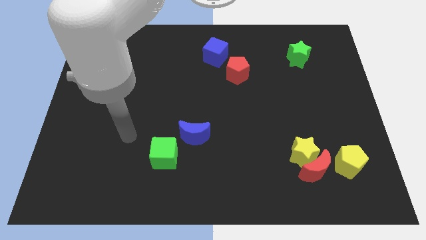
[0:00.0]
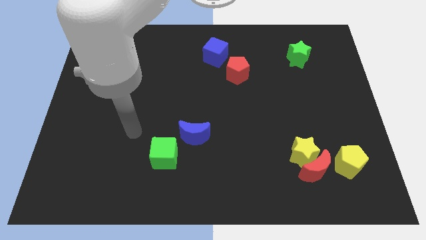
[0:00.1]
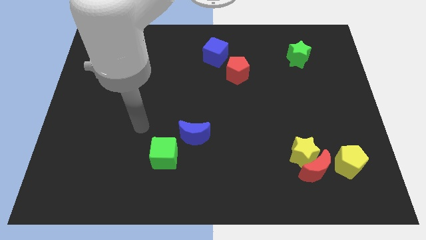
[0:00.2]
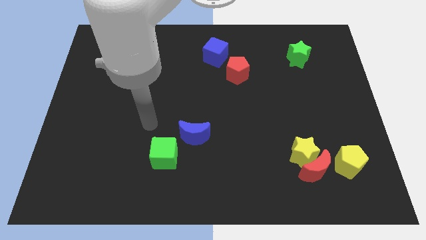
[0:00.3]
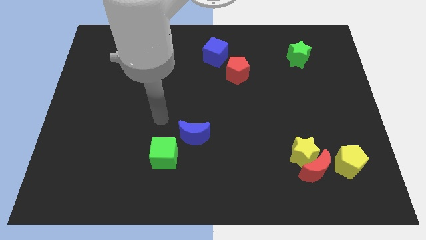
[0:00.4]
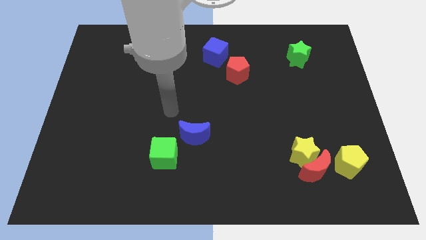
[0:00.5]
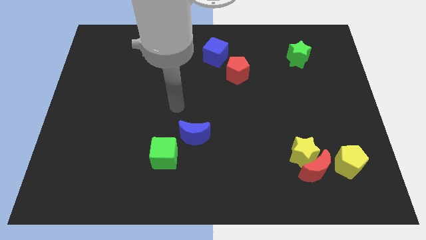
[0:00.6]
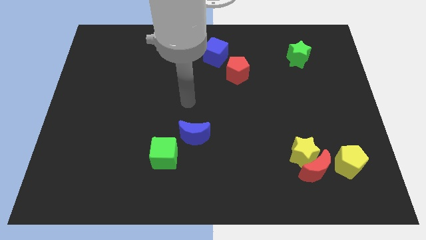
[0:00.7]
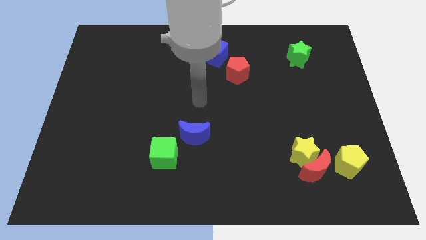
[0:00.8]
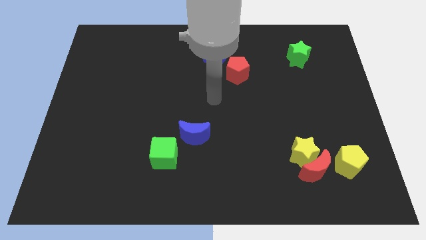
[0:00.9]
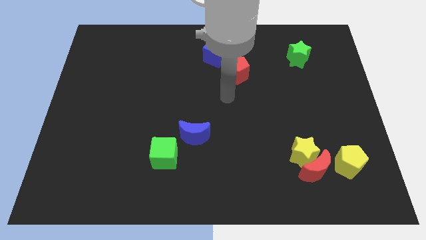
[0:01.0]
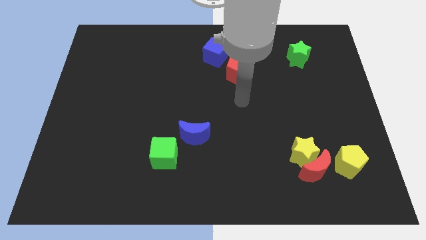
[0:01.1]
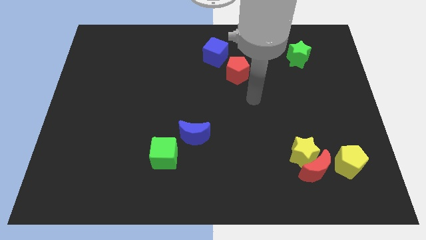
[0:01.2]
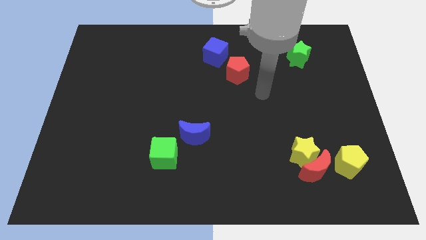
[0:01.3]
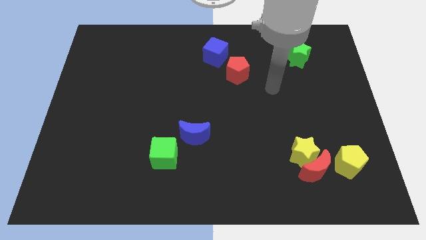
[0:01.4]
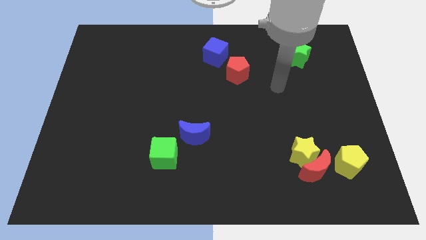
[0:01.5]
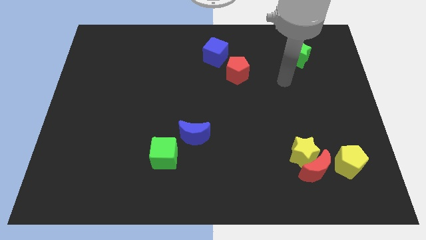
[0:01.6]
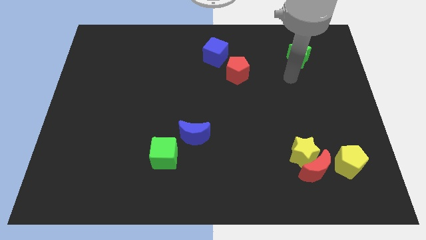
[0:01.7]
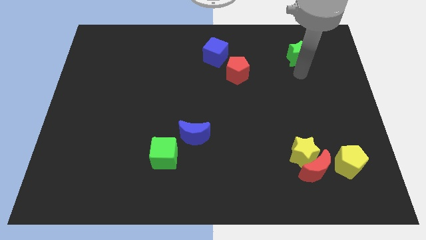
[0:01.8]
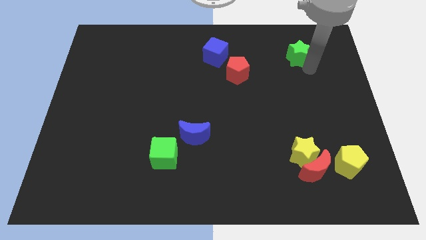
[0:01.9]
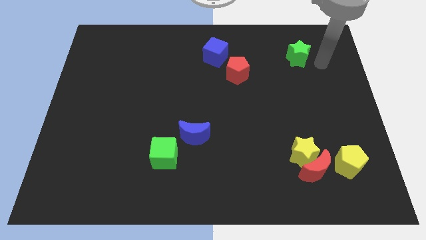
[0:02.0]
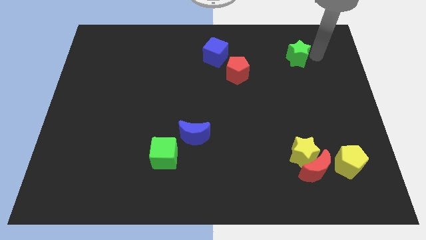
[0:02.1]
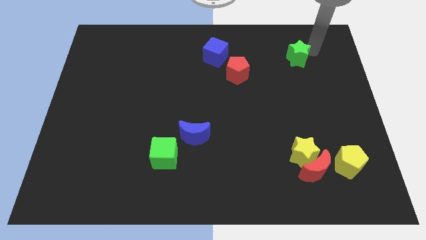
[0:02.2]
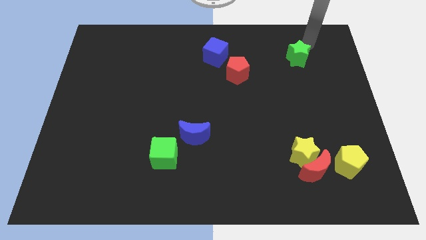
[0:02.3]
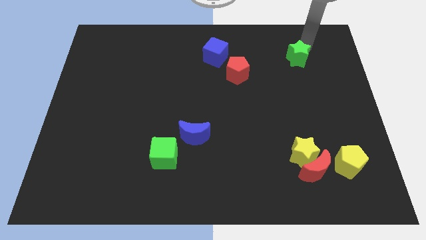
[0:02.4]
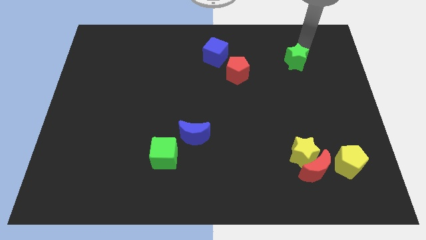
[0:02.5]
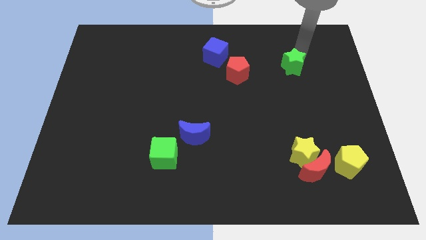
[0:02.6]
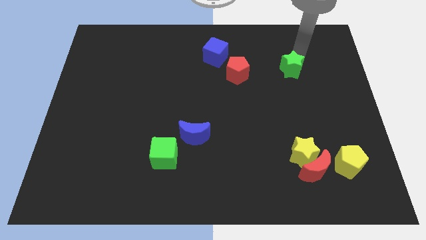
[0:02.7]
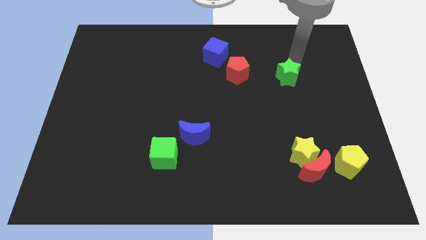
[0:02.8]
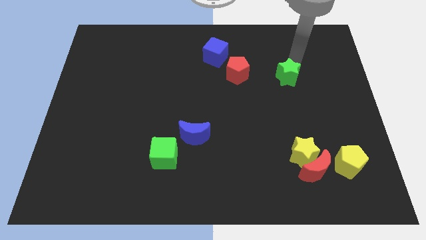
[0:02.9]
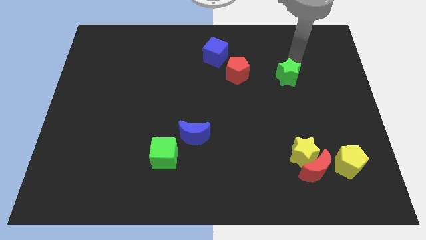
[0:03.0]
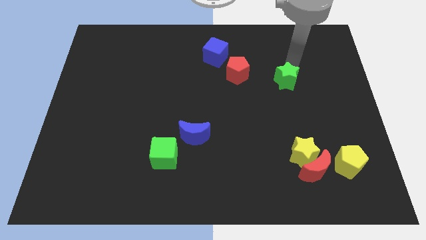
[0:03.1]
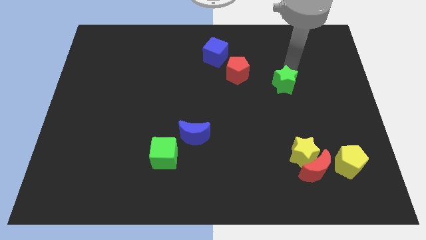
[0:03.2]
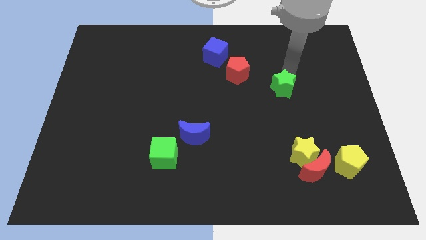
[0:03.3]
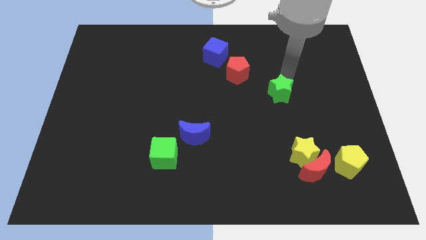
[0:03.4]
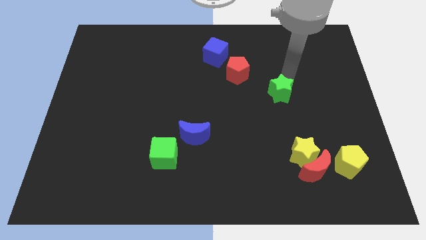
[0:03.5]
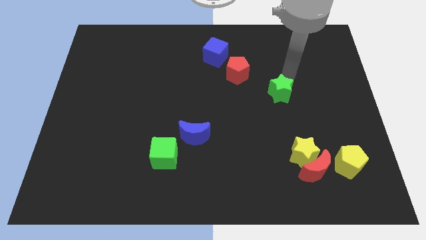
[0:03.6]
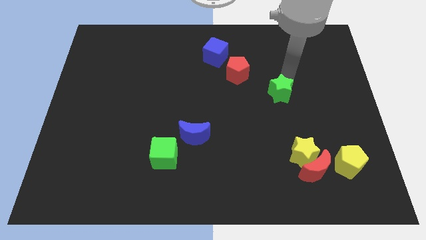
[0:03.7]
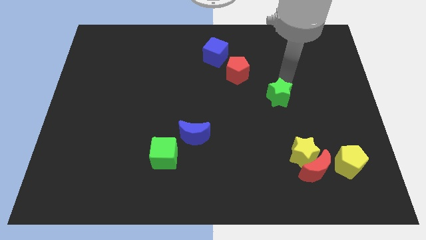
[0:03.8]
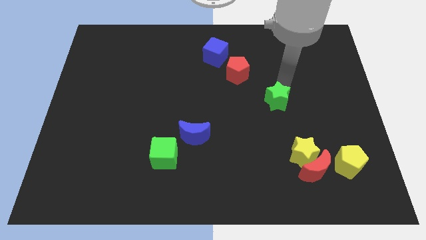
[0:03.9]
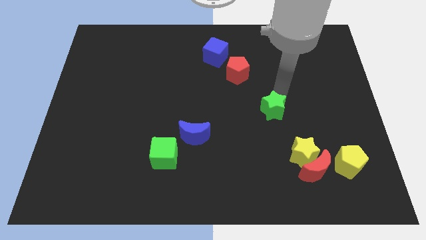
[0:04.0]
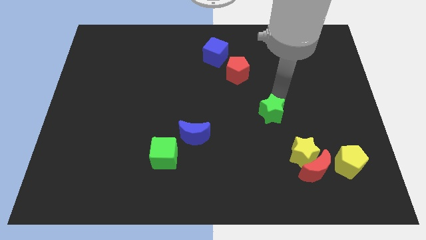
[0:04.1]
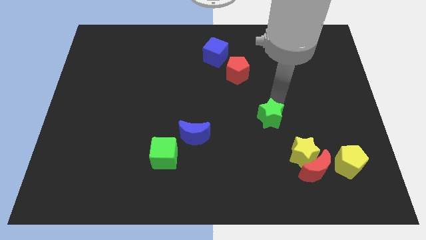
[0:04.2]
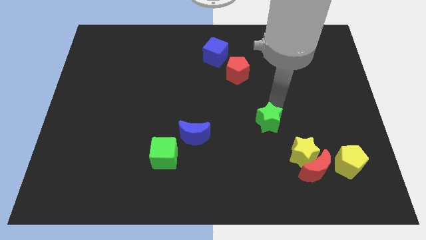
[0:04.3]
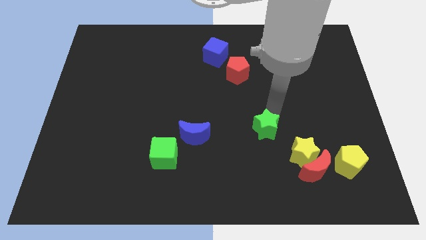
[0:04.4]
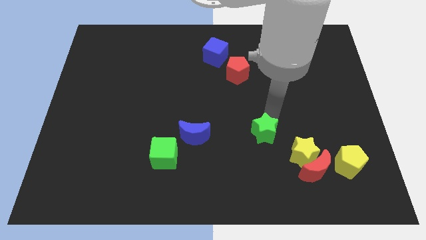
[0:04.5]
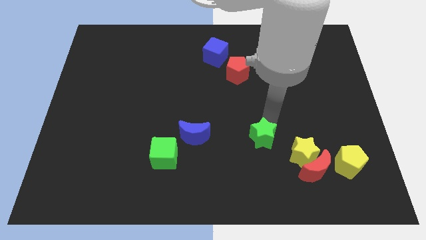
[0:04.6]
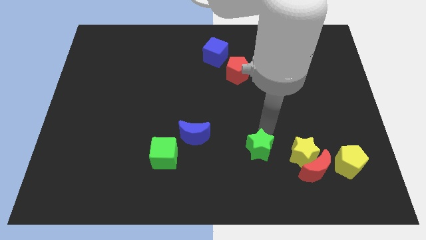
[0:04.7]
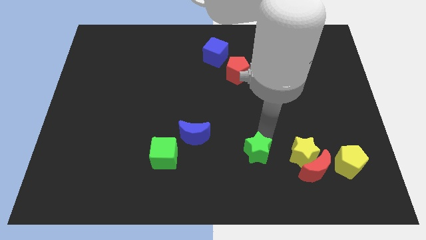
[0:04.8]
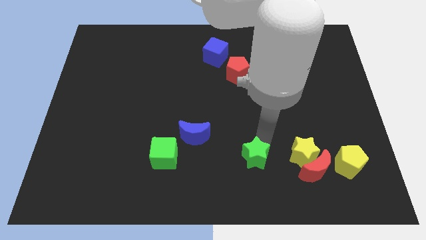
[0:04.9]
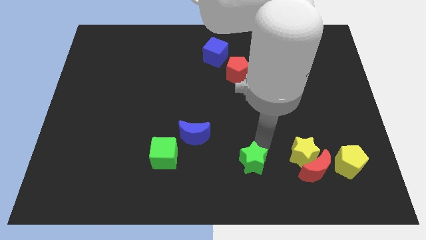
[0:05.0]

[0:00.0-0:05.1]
slide the green star to the bottom side

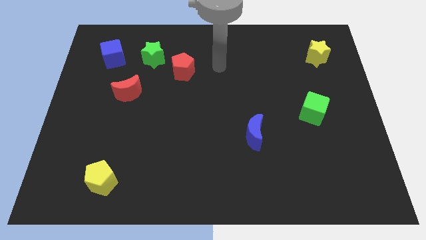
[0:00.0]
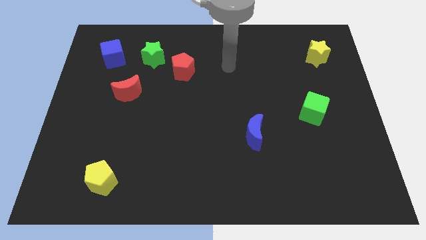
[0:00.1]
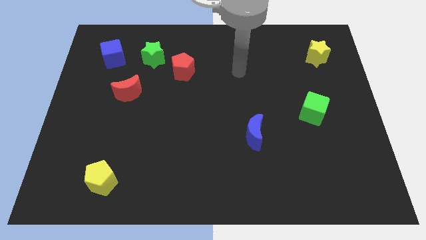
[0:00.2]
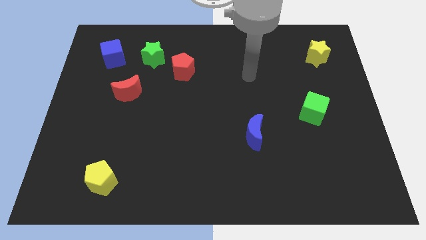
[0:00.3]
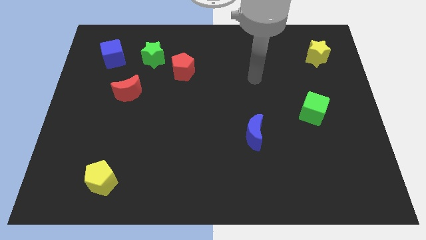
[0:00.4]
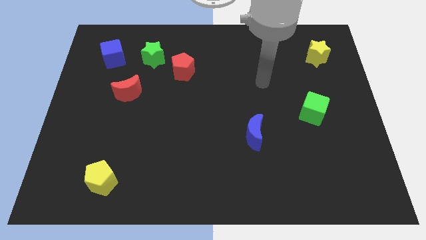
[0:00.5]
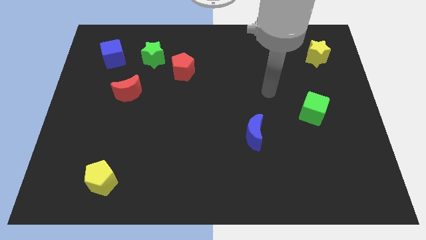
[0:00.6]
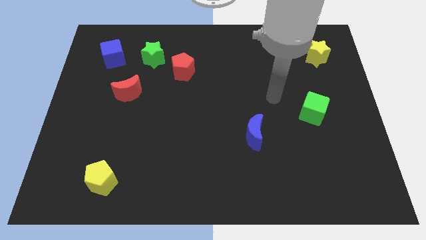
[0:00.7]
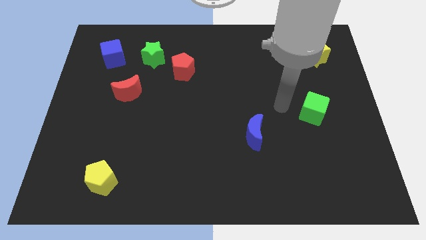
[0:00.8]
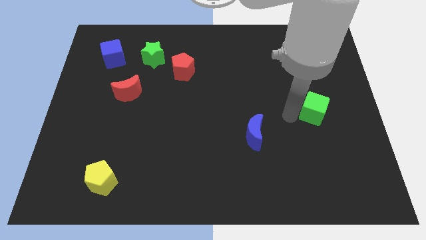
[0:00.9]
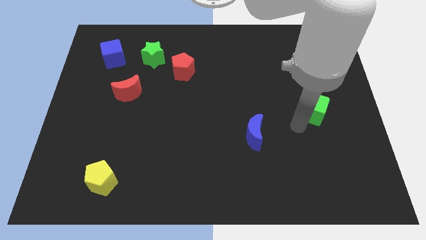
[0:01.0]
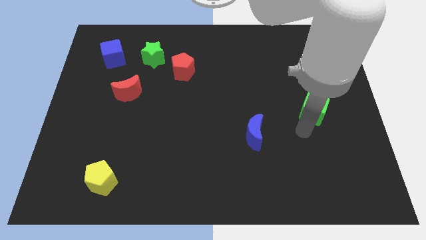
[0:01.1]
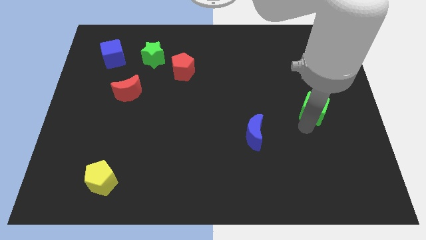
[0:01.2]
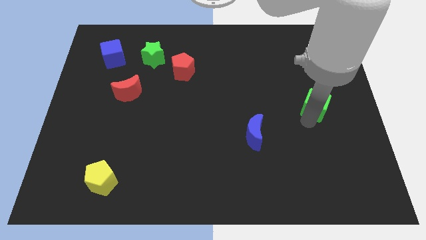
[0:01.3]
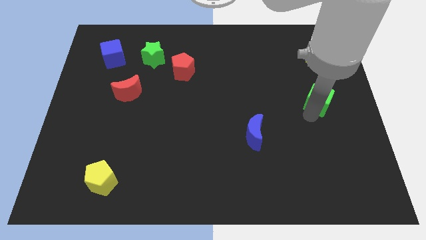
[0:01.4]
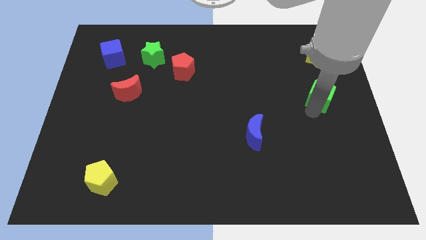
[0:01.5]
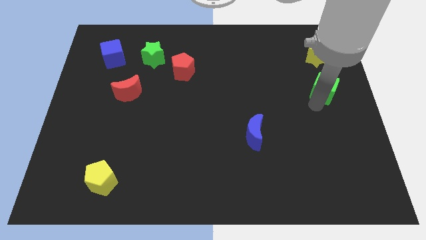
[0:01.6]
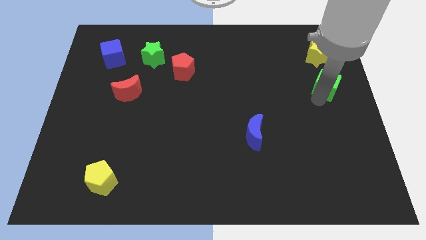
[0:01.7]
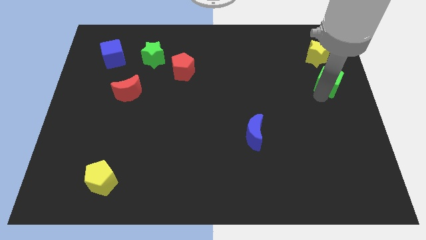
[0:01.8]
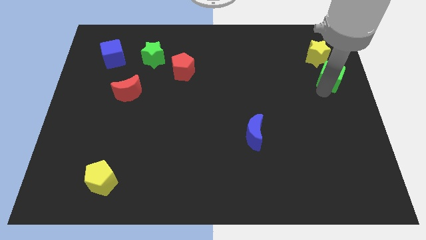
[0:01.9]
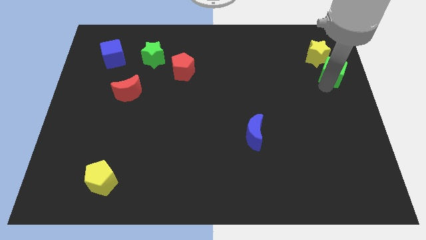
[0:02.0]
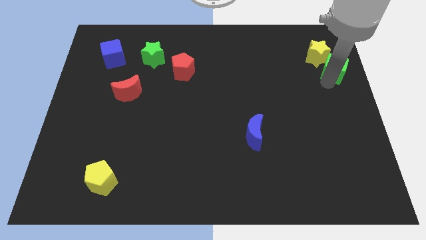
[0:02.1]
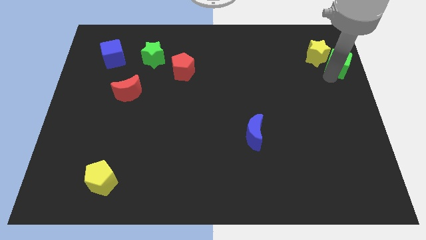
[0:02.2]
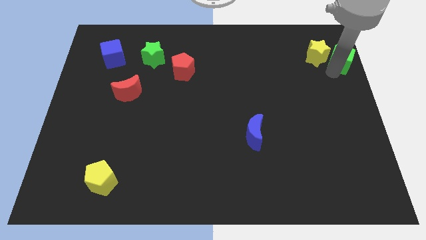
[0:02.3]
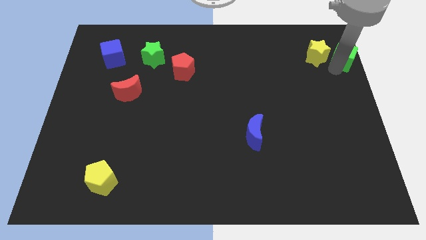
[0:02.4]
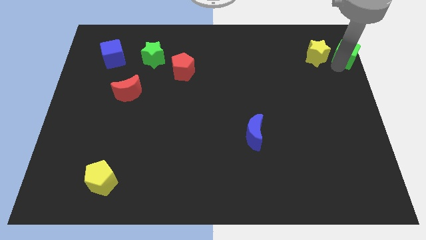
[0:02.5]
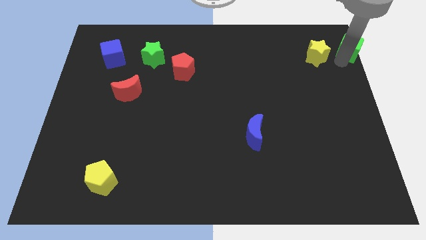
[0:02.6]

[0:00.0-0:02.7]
put the green cube to the top right
